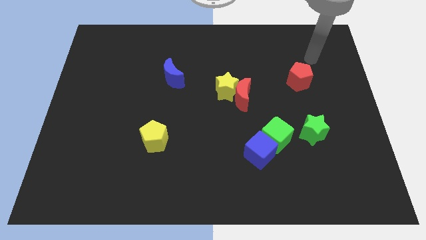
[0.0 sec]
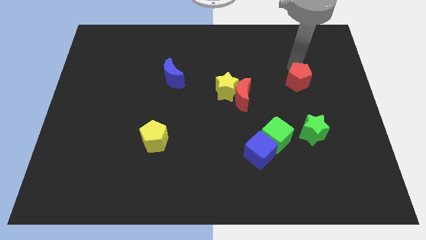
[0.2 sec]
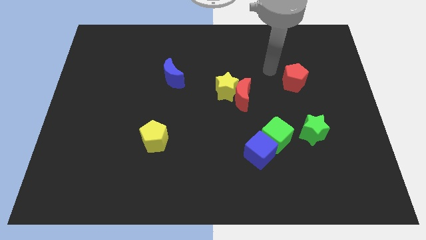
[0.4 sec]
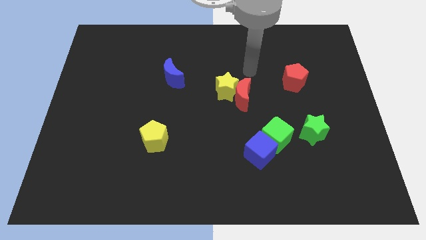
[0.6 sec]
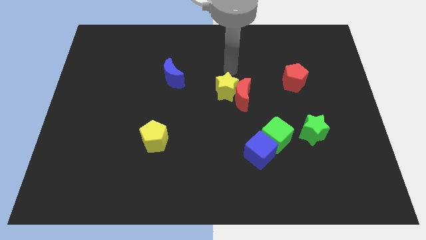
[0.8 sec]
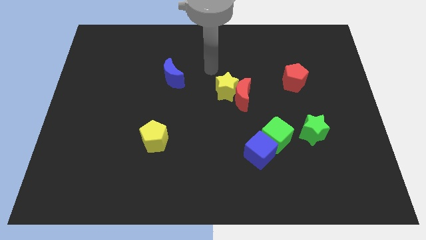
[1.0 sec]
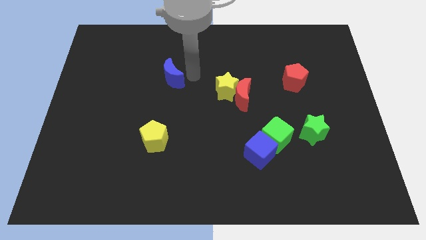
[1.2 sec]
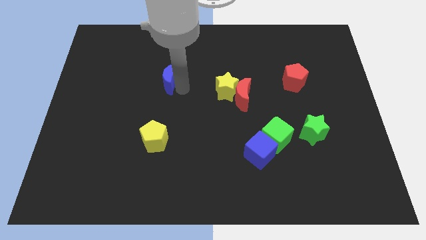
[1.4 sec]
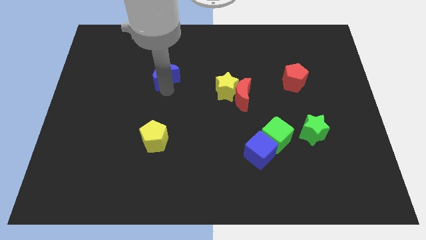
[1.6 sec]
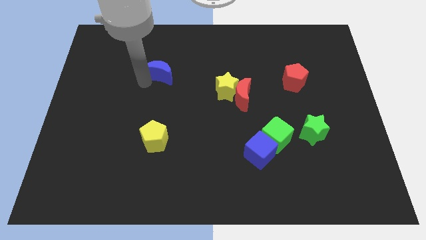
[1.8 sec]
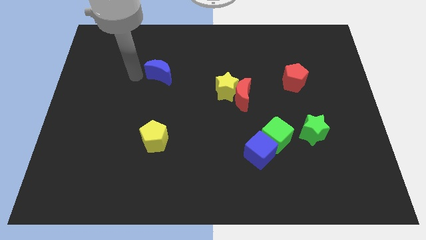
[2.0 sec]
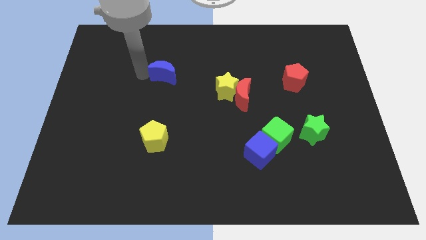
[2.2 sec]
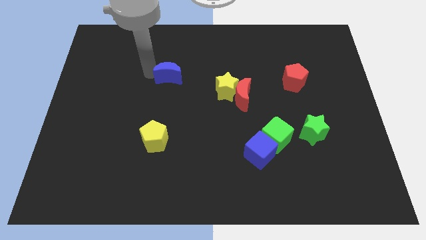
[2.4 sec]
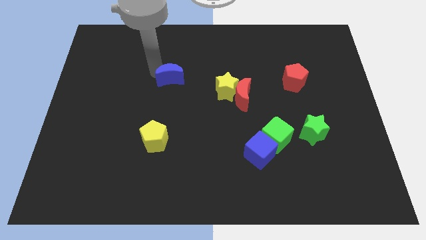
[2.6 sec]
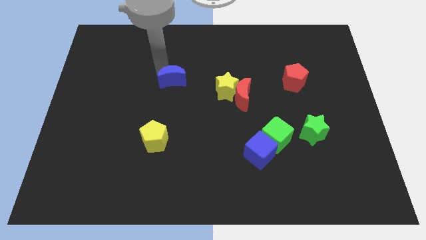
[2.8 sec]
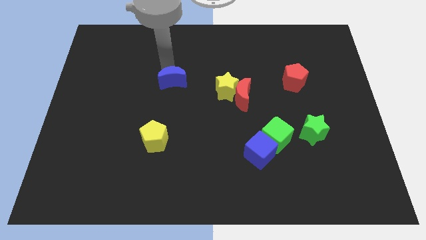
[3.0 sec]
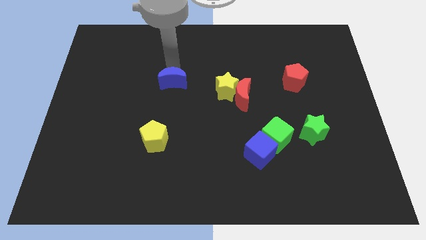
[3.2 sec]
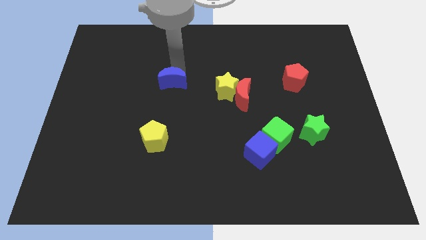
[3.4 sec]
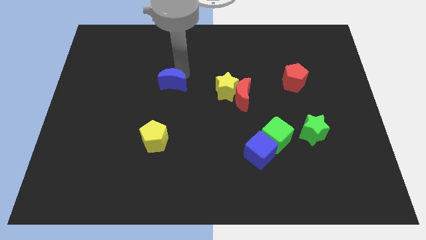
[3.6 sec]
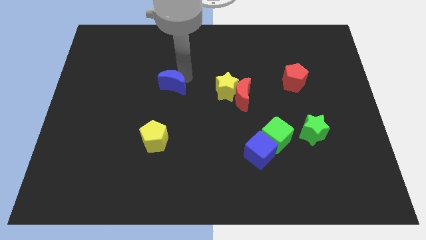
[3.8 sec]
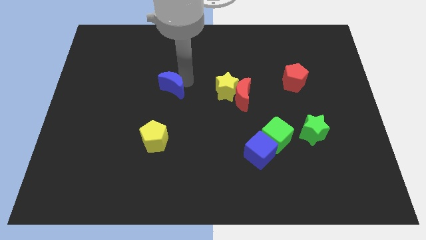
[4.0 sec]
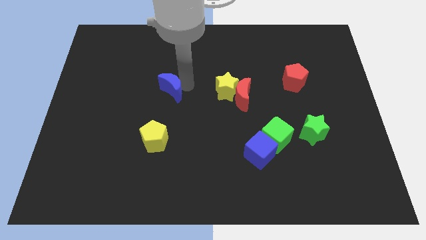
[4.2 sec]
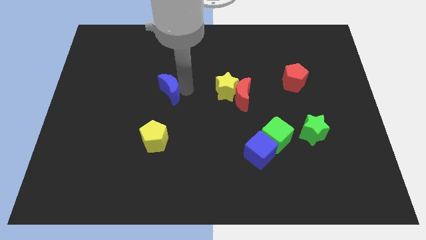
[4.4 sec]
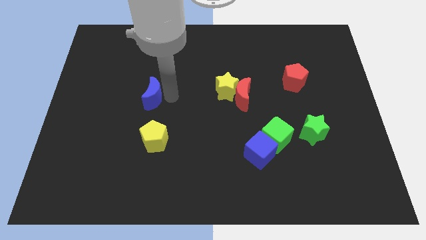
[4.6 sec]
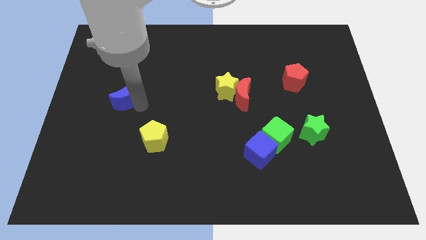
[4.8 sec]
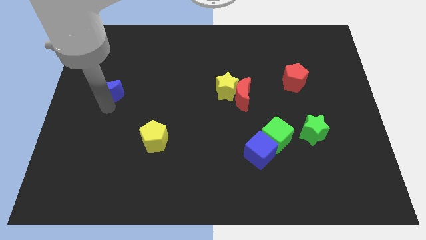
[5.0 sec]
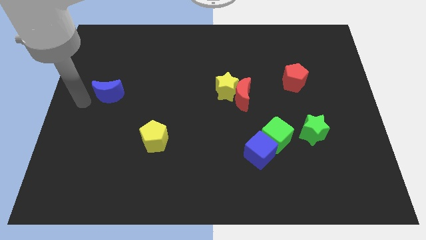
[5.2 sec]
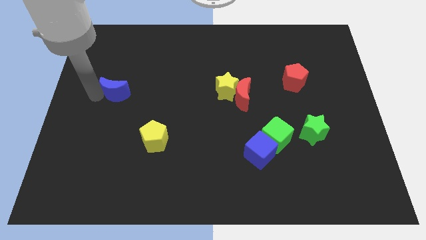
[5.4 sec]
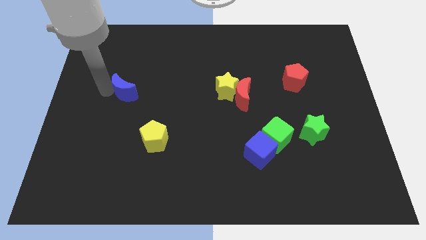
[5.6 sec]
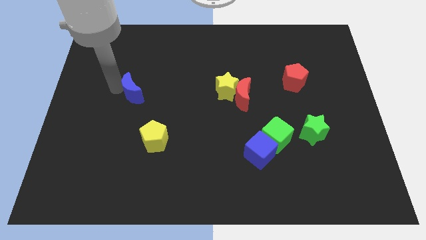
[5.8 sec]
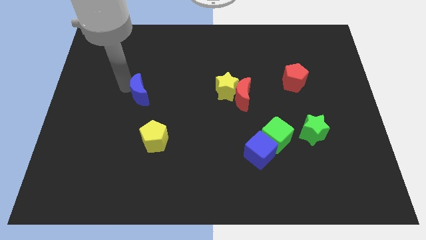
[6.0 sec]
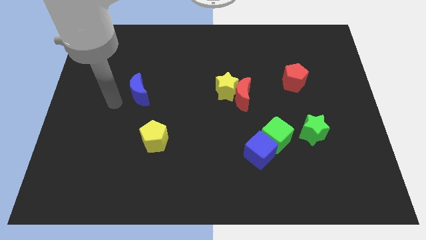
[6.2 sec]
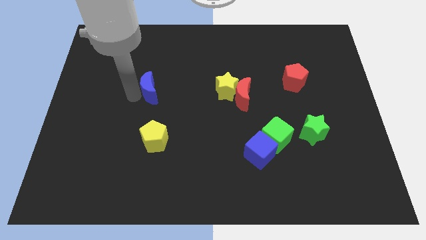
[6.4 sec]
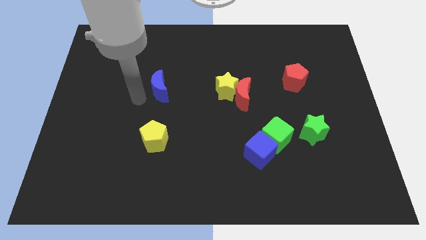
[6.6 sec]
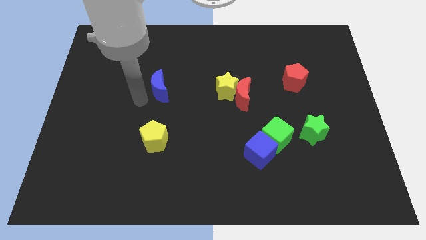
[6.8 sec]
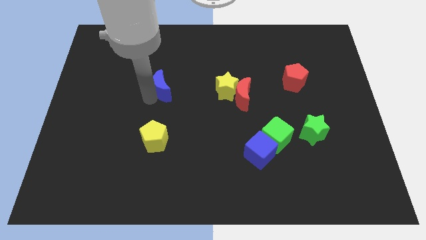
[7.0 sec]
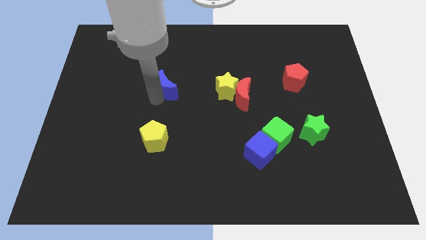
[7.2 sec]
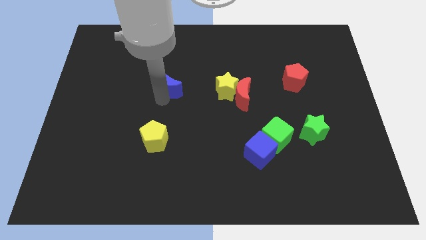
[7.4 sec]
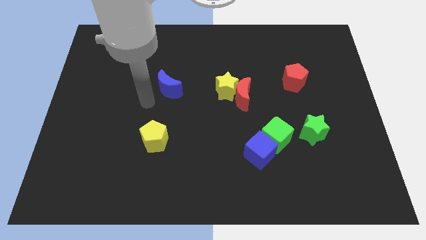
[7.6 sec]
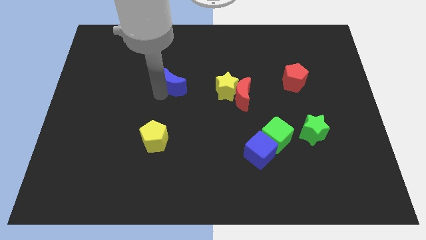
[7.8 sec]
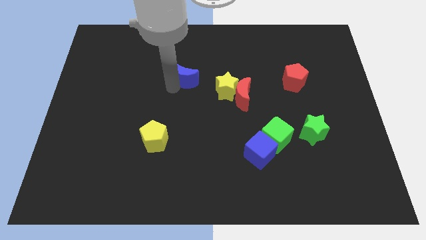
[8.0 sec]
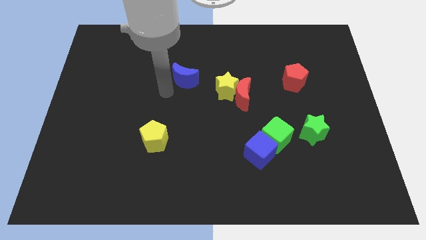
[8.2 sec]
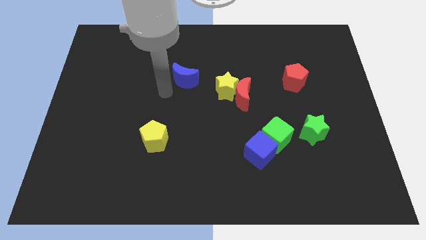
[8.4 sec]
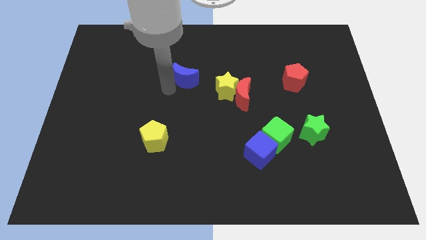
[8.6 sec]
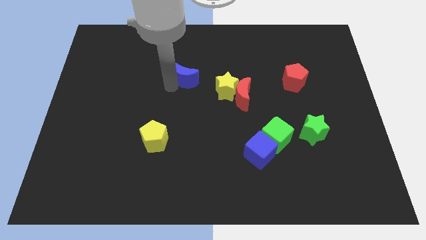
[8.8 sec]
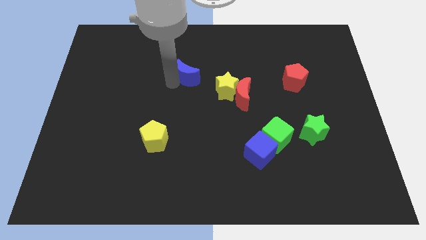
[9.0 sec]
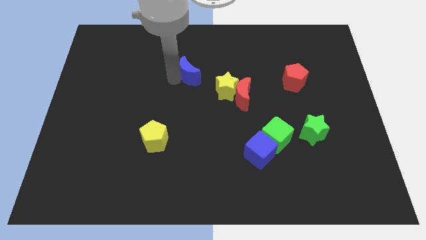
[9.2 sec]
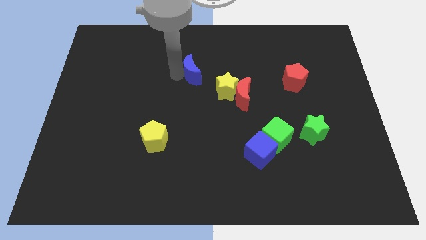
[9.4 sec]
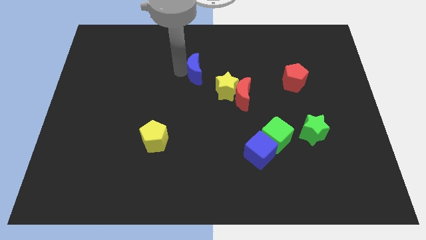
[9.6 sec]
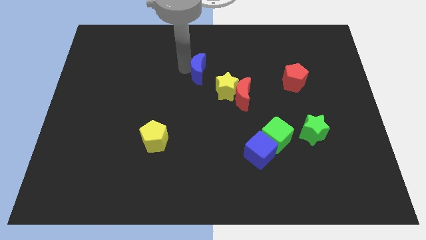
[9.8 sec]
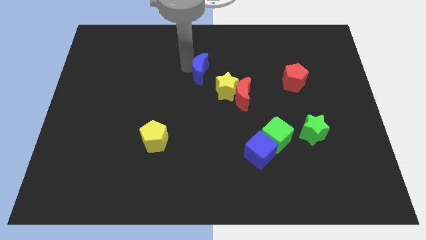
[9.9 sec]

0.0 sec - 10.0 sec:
slightly push the blue moon right

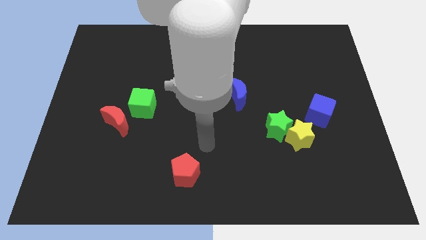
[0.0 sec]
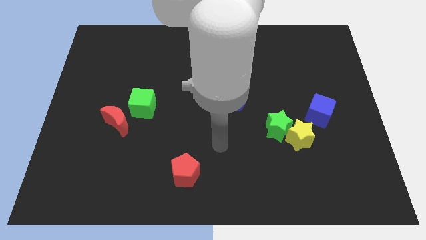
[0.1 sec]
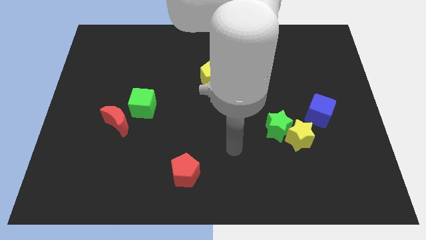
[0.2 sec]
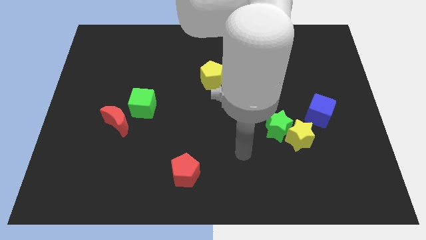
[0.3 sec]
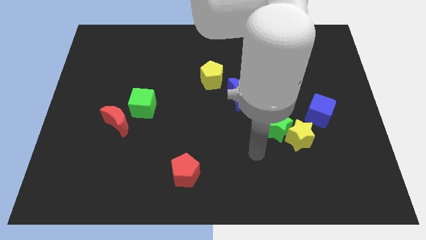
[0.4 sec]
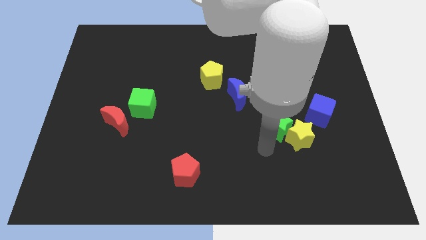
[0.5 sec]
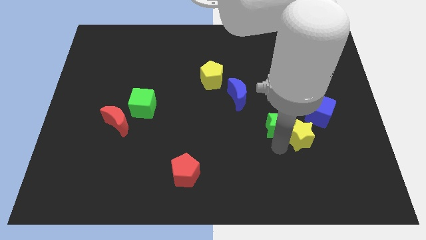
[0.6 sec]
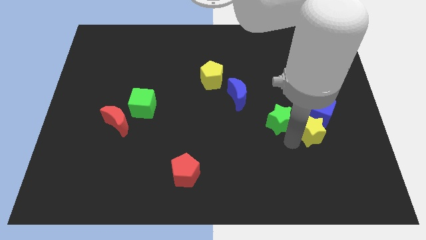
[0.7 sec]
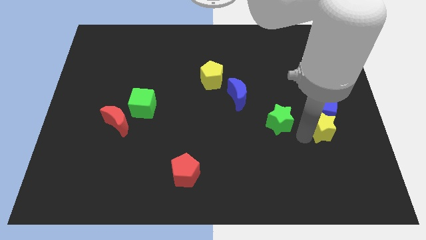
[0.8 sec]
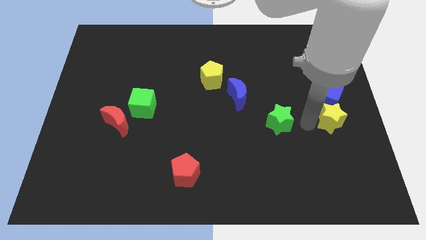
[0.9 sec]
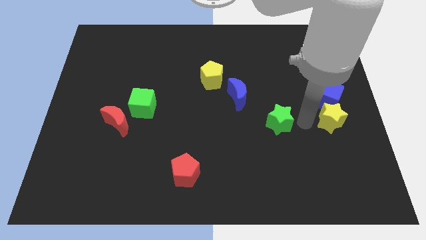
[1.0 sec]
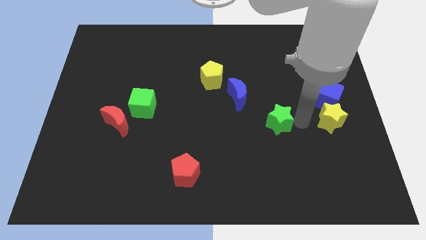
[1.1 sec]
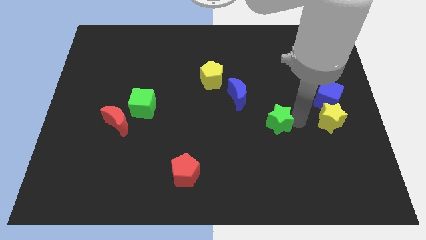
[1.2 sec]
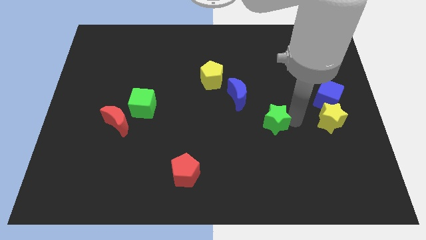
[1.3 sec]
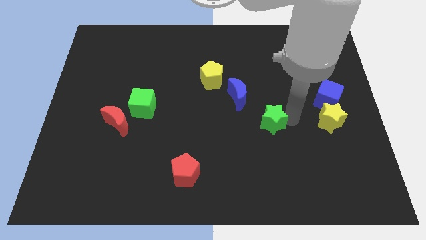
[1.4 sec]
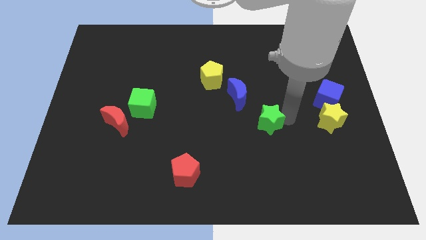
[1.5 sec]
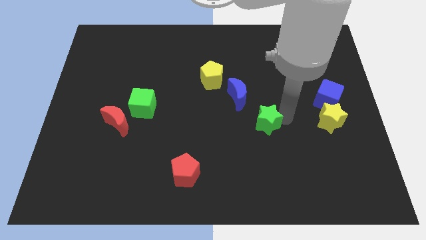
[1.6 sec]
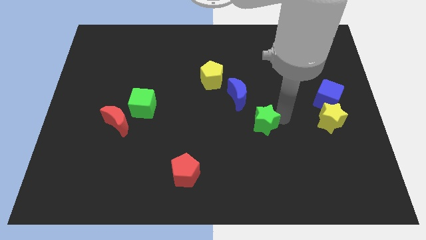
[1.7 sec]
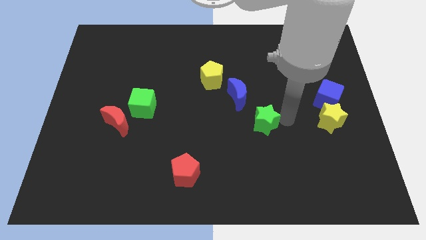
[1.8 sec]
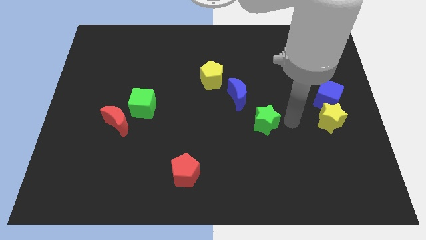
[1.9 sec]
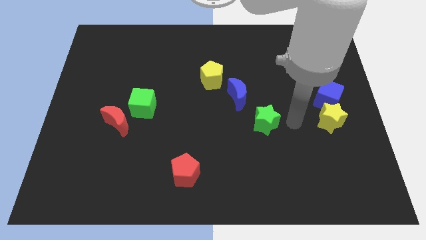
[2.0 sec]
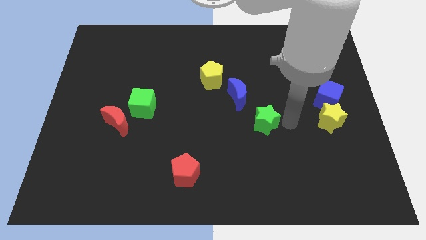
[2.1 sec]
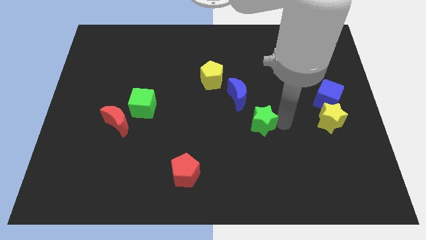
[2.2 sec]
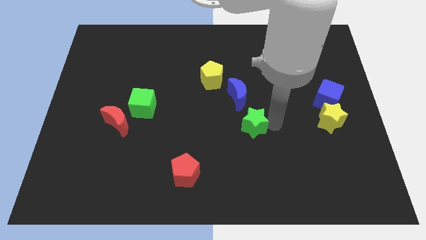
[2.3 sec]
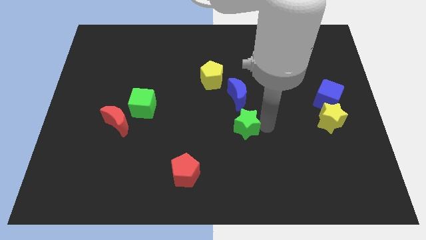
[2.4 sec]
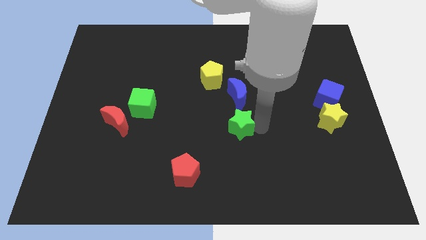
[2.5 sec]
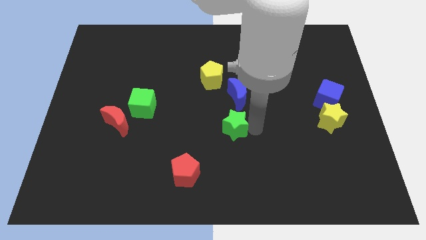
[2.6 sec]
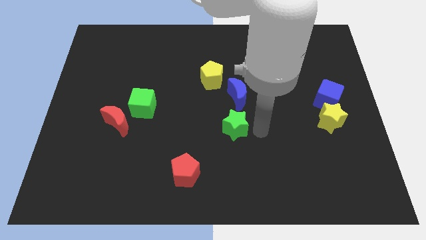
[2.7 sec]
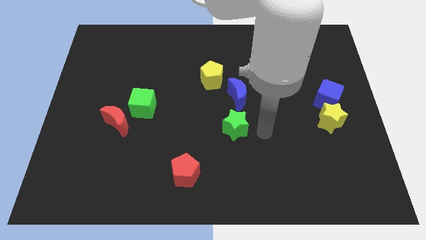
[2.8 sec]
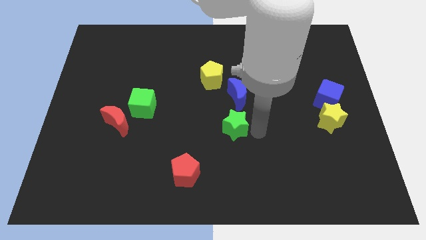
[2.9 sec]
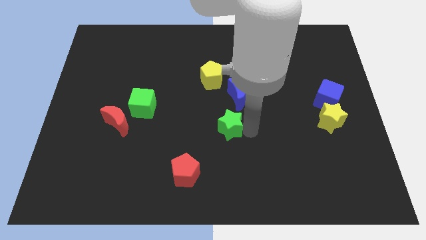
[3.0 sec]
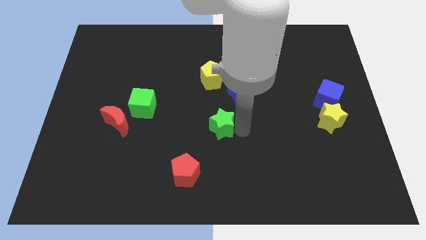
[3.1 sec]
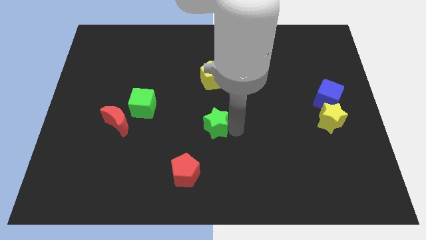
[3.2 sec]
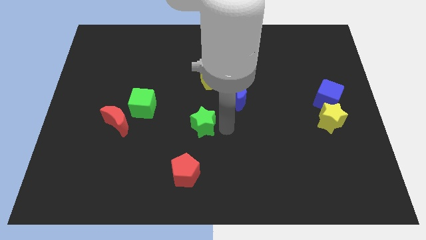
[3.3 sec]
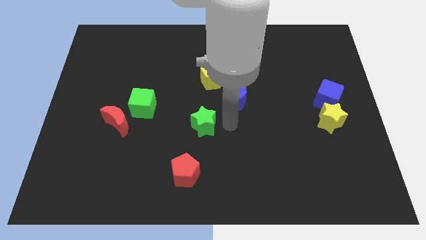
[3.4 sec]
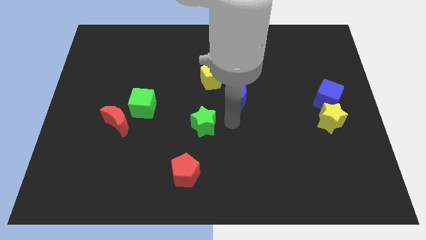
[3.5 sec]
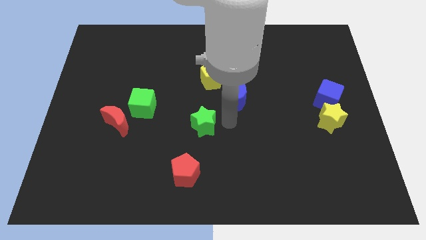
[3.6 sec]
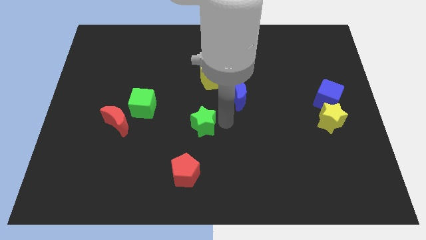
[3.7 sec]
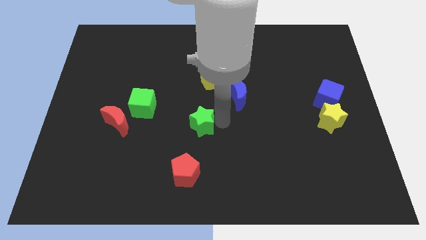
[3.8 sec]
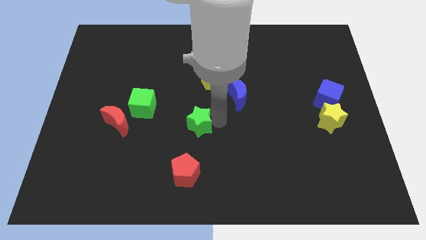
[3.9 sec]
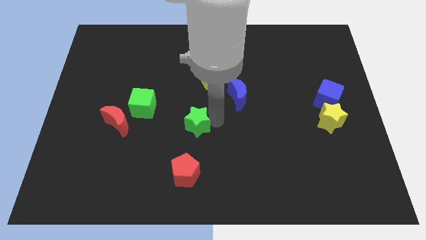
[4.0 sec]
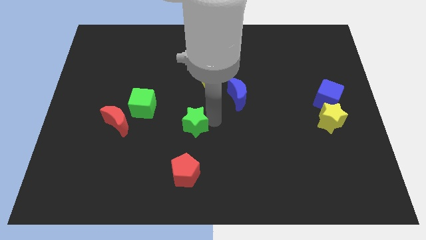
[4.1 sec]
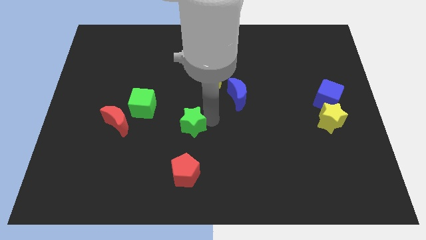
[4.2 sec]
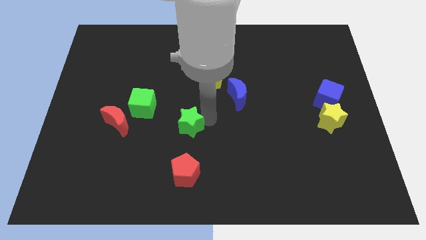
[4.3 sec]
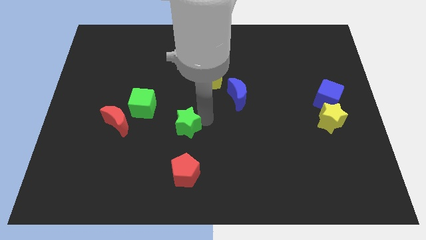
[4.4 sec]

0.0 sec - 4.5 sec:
move the green star to the left
